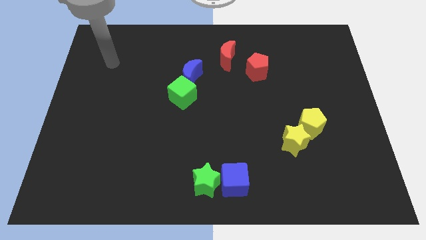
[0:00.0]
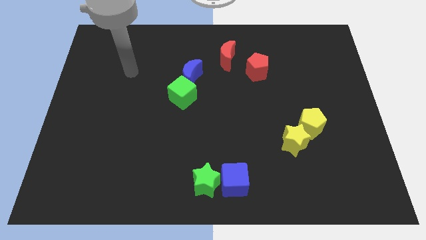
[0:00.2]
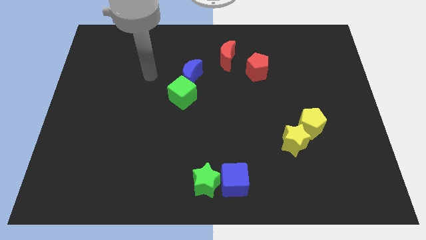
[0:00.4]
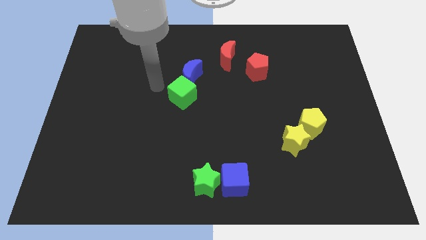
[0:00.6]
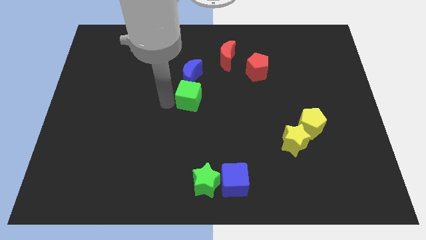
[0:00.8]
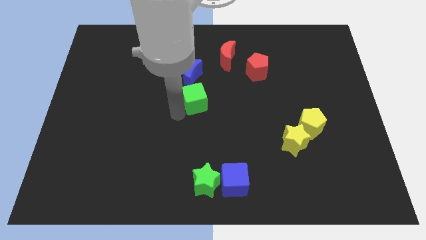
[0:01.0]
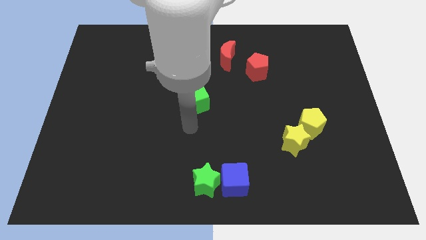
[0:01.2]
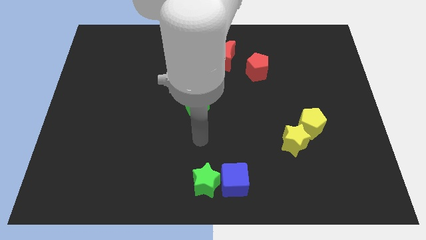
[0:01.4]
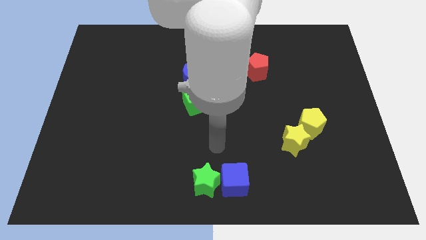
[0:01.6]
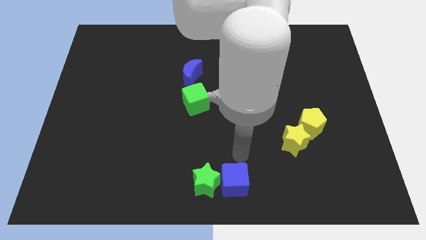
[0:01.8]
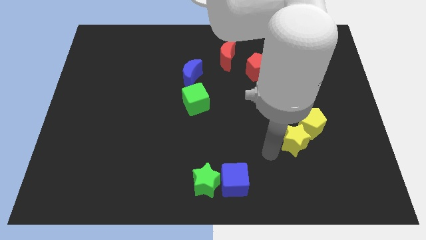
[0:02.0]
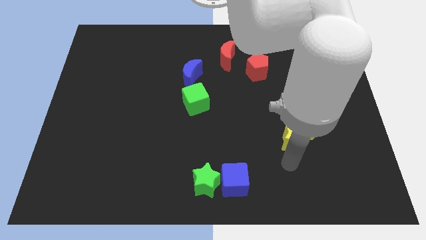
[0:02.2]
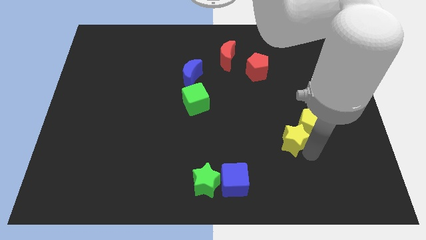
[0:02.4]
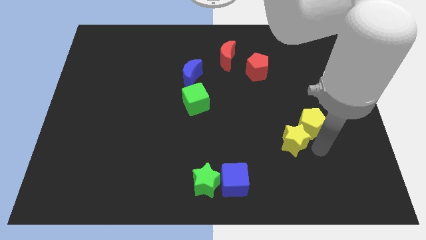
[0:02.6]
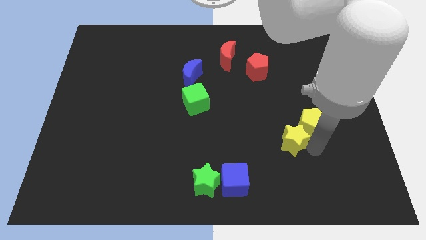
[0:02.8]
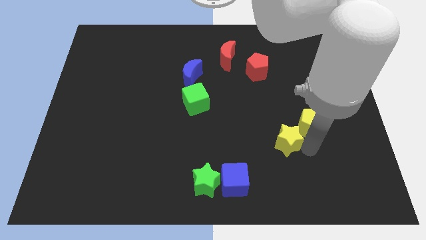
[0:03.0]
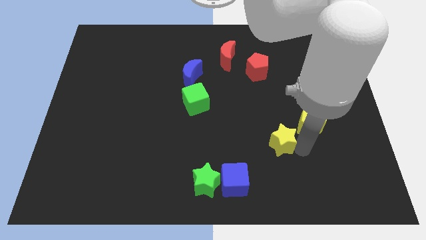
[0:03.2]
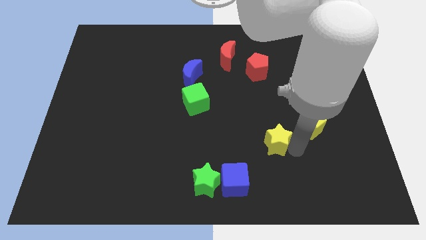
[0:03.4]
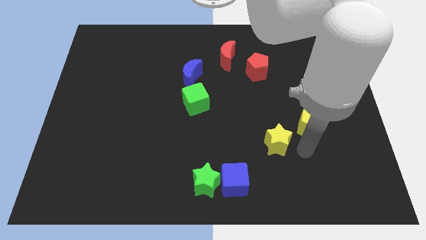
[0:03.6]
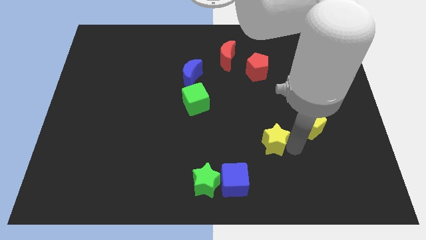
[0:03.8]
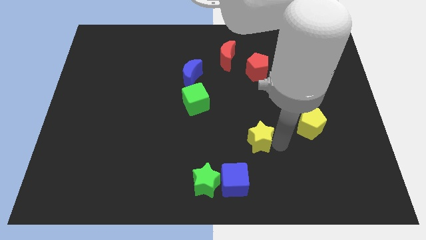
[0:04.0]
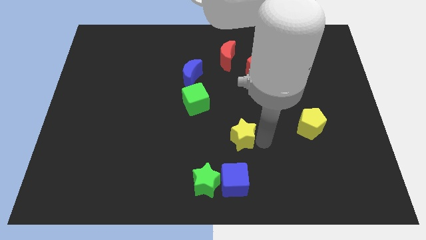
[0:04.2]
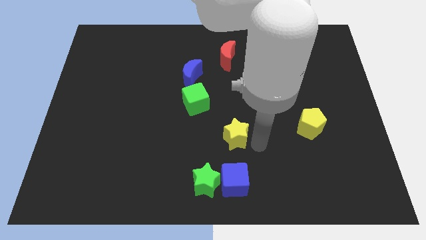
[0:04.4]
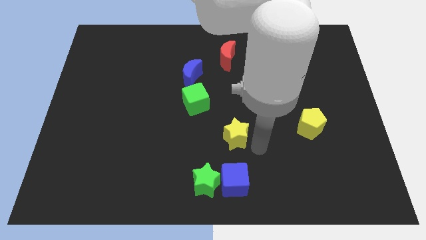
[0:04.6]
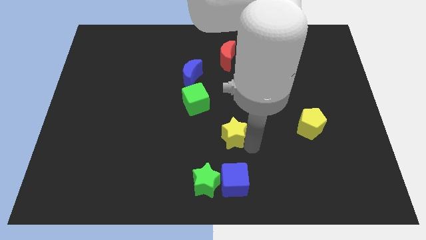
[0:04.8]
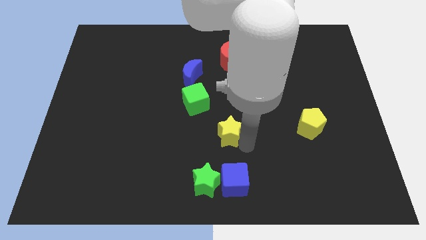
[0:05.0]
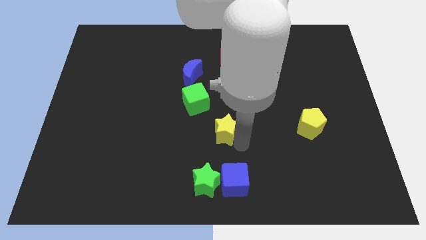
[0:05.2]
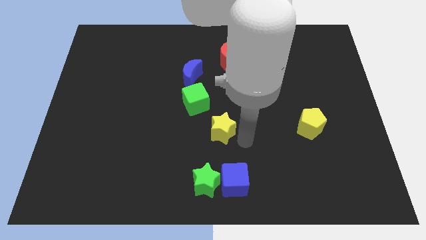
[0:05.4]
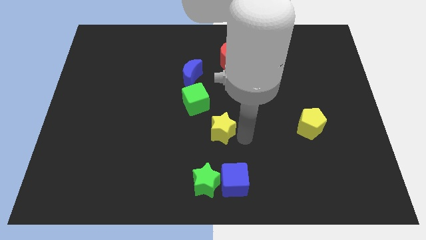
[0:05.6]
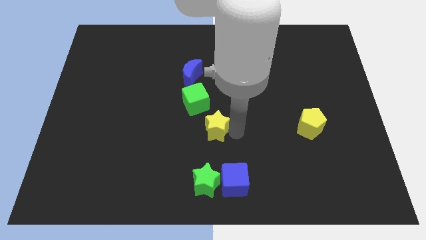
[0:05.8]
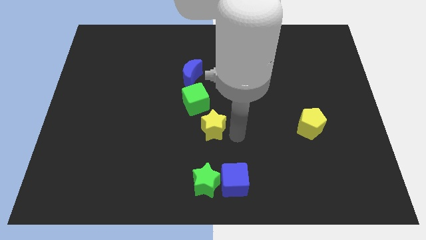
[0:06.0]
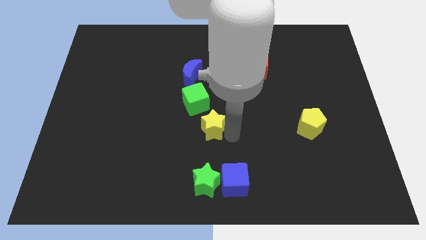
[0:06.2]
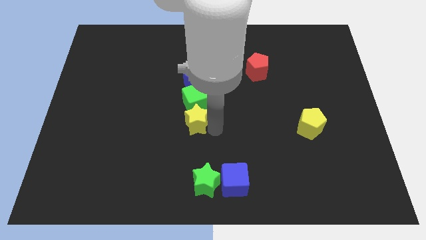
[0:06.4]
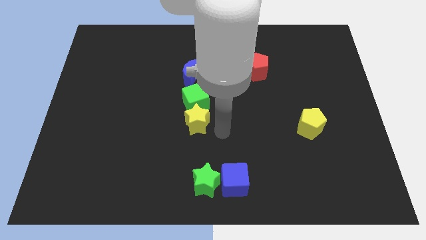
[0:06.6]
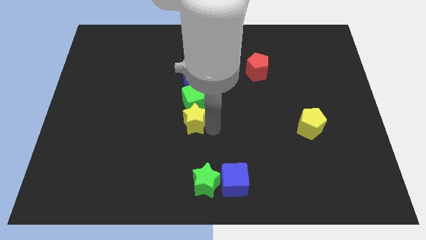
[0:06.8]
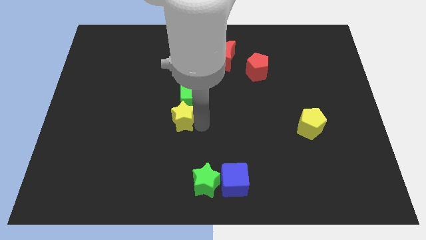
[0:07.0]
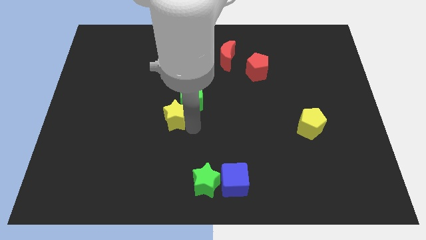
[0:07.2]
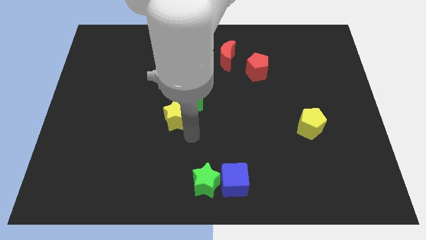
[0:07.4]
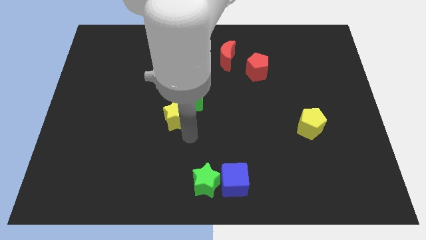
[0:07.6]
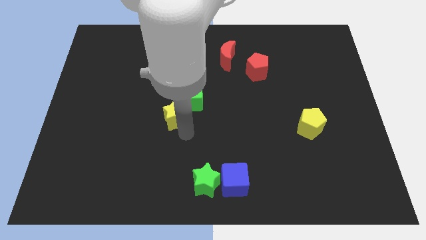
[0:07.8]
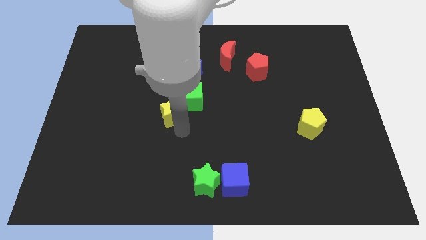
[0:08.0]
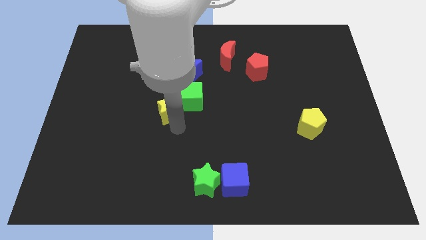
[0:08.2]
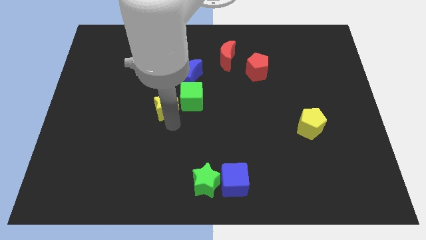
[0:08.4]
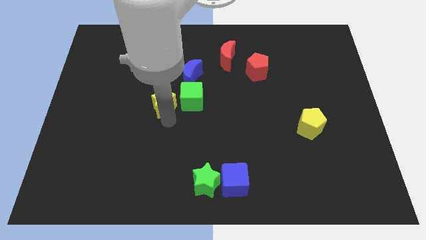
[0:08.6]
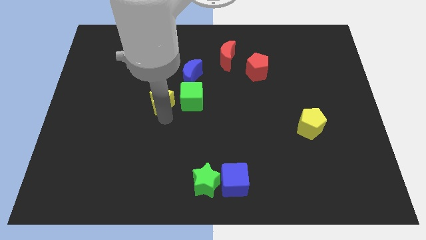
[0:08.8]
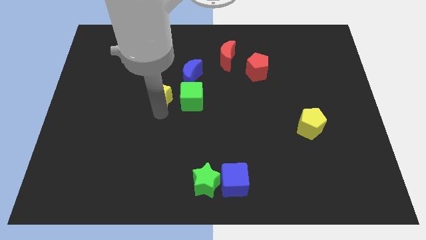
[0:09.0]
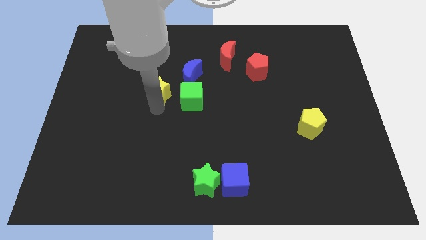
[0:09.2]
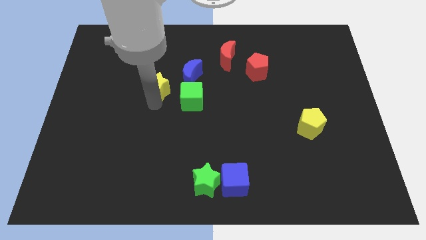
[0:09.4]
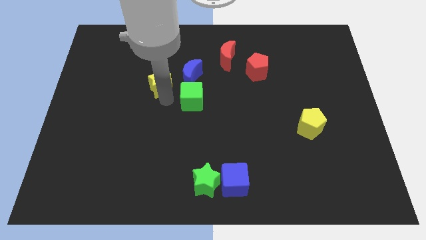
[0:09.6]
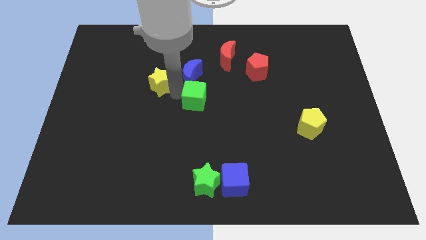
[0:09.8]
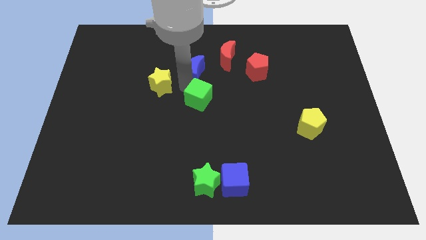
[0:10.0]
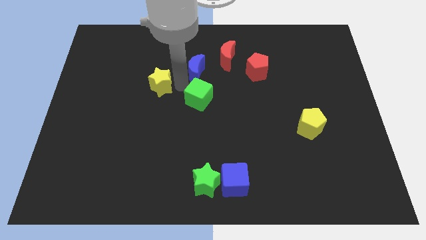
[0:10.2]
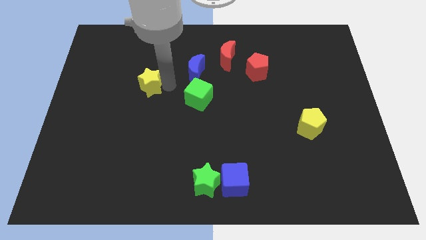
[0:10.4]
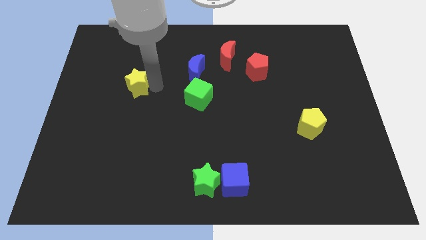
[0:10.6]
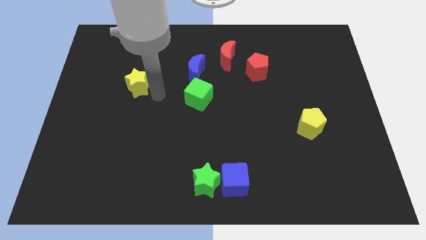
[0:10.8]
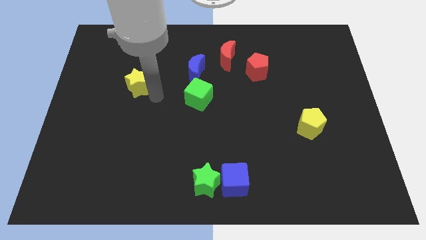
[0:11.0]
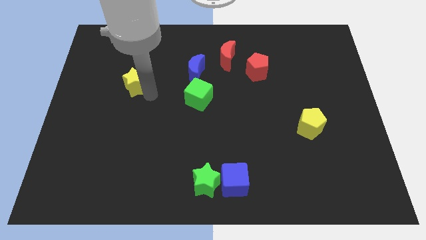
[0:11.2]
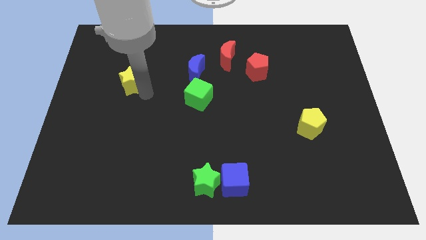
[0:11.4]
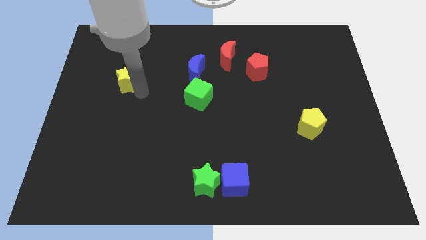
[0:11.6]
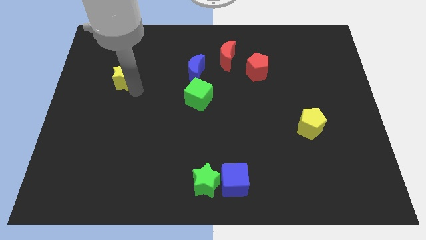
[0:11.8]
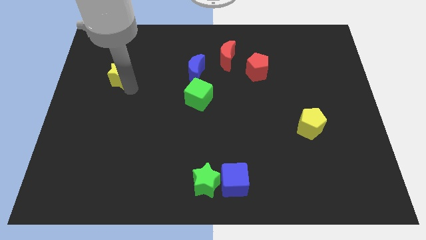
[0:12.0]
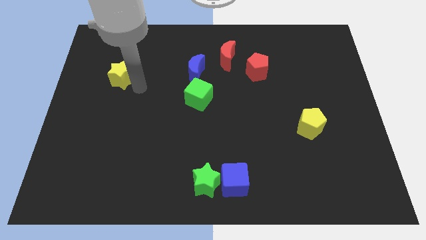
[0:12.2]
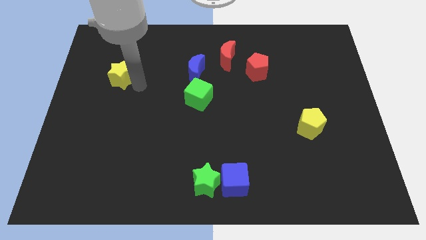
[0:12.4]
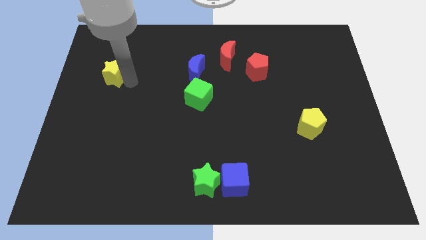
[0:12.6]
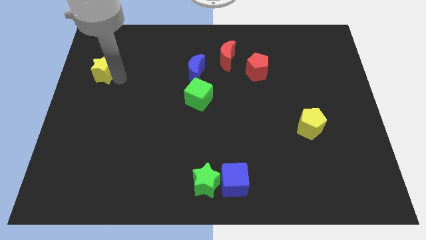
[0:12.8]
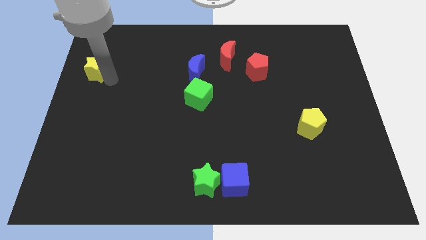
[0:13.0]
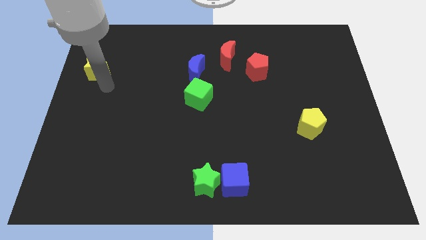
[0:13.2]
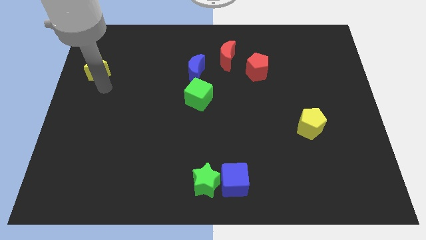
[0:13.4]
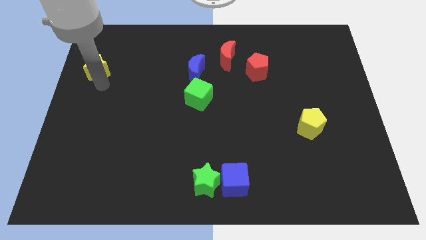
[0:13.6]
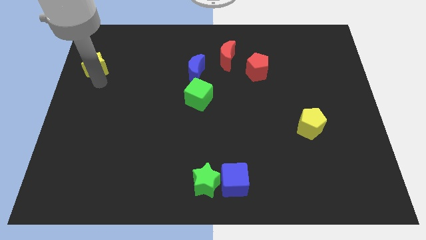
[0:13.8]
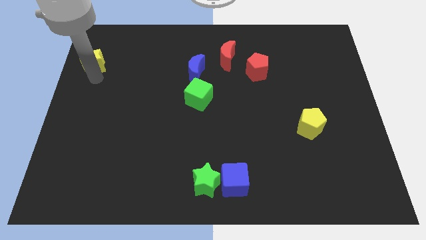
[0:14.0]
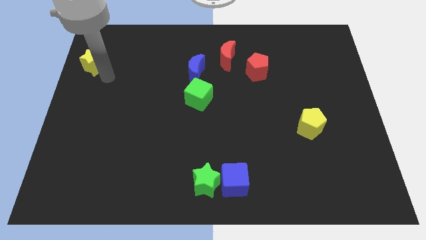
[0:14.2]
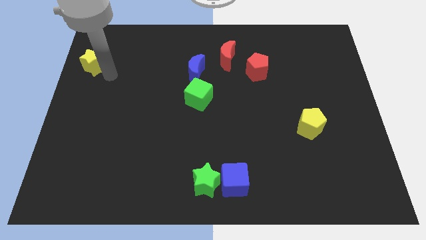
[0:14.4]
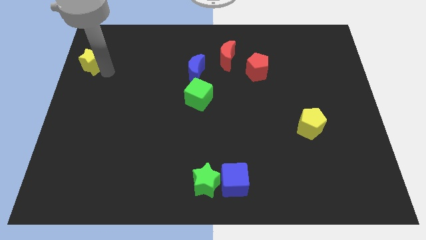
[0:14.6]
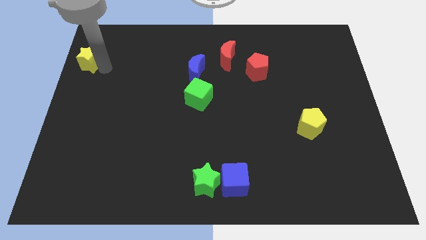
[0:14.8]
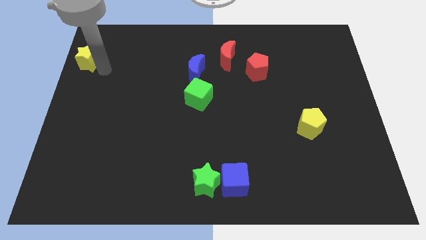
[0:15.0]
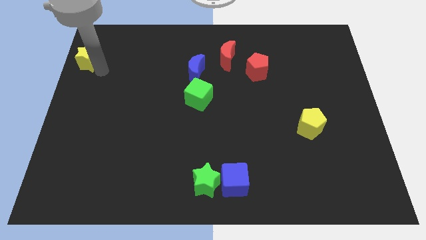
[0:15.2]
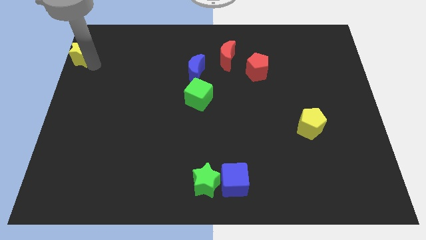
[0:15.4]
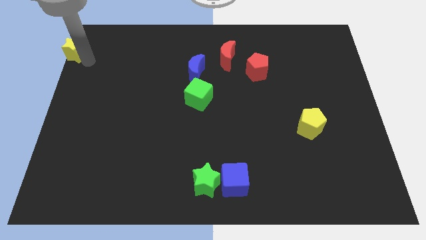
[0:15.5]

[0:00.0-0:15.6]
put the yellow star to the top left corner
